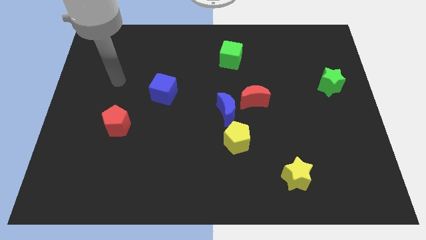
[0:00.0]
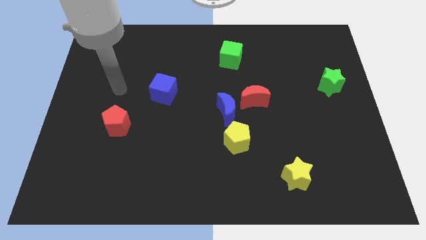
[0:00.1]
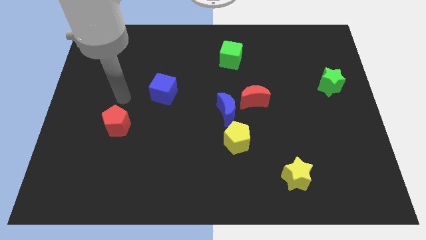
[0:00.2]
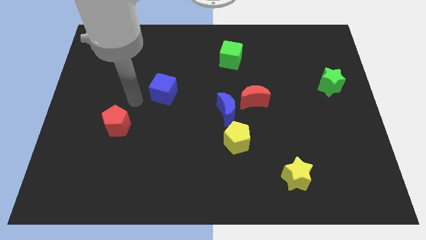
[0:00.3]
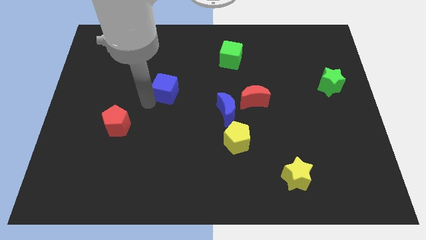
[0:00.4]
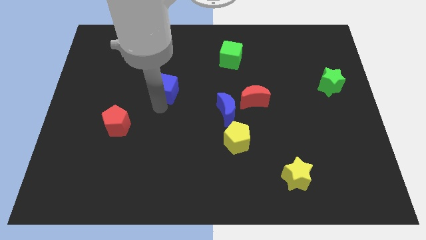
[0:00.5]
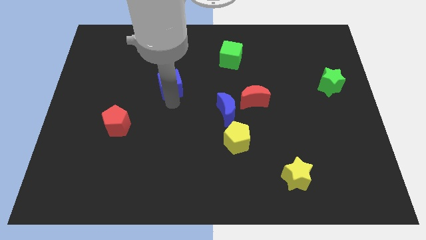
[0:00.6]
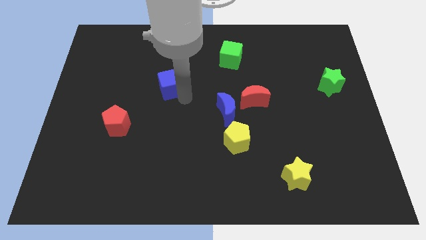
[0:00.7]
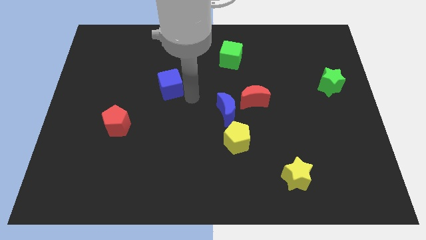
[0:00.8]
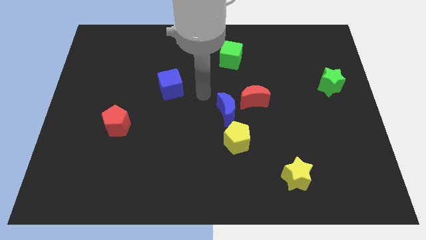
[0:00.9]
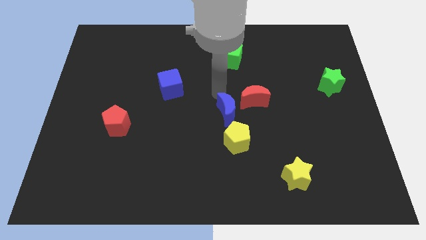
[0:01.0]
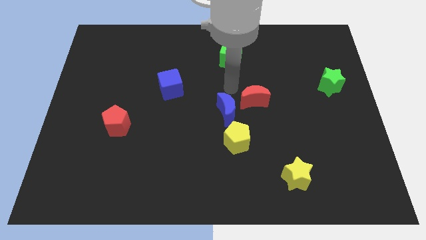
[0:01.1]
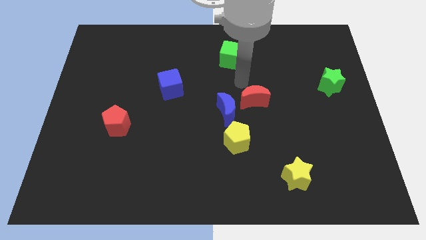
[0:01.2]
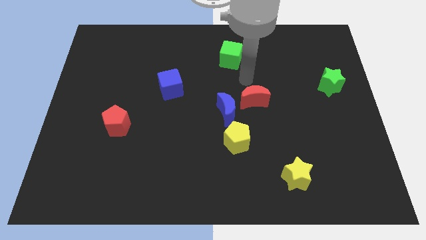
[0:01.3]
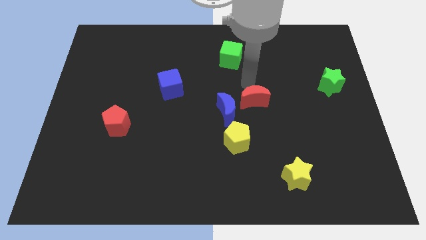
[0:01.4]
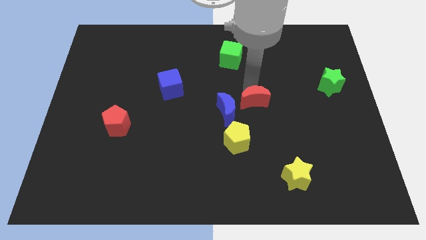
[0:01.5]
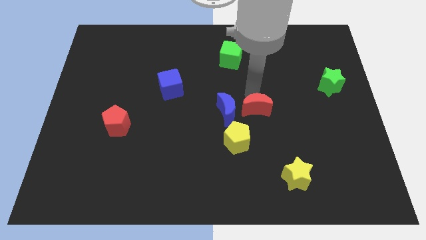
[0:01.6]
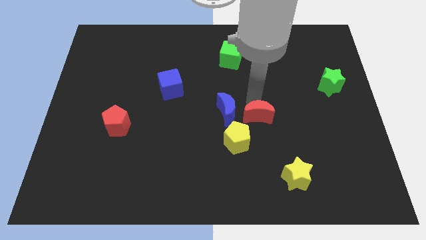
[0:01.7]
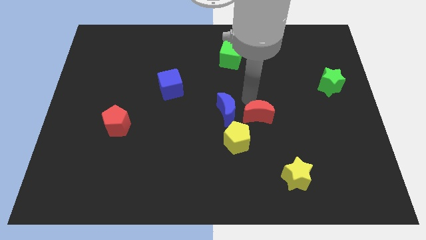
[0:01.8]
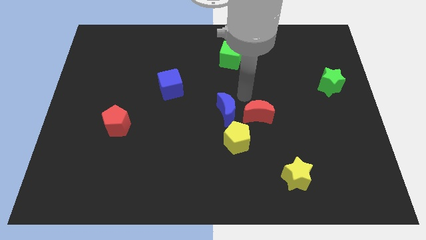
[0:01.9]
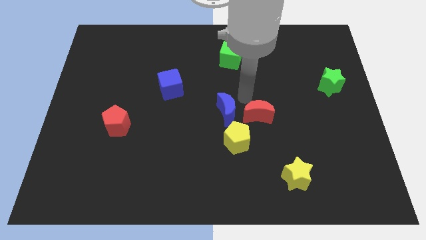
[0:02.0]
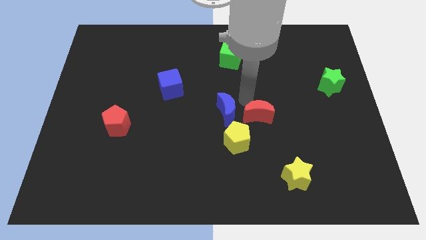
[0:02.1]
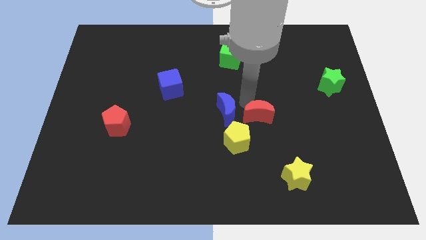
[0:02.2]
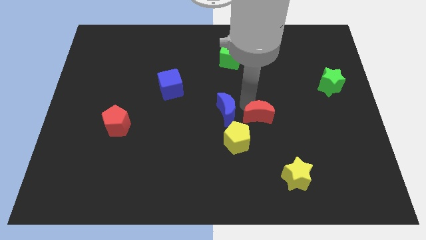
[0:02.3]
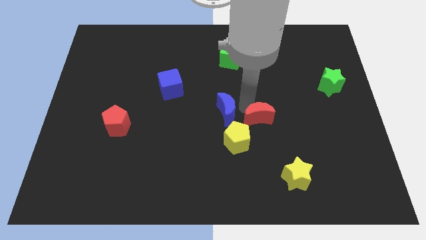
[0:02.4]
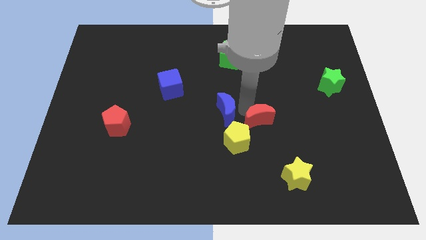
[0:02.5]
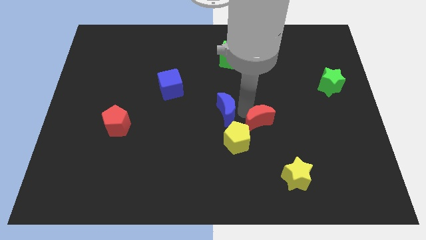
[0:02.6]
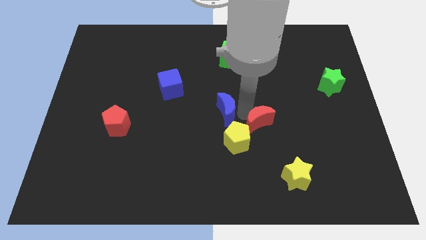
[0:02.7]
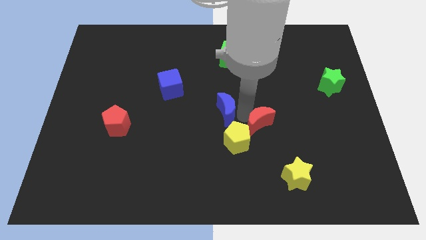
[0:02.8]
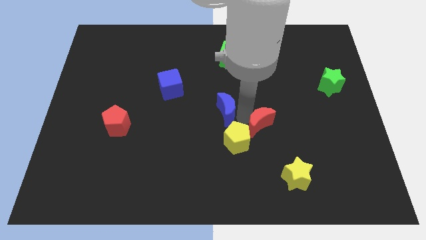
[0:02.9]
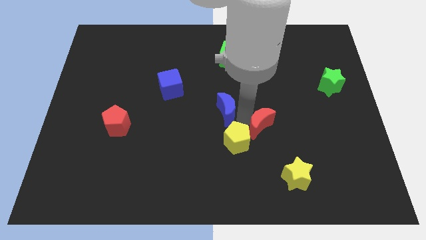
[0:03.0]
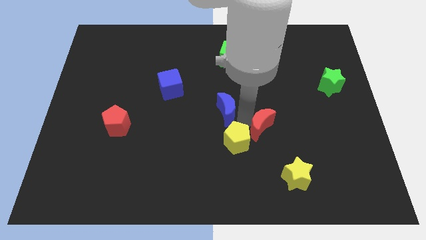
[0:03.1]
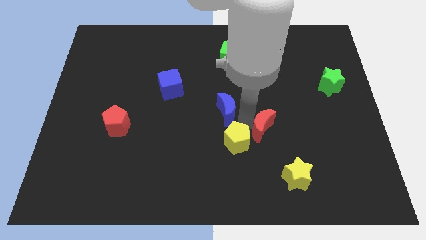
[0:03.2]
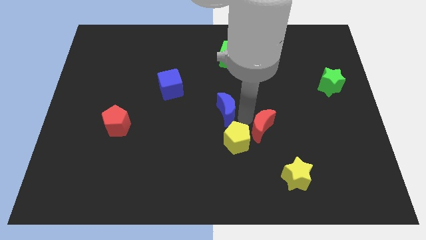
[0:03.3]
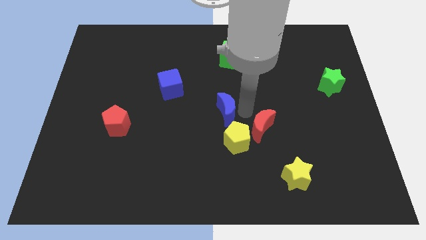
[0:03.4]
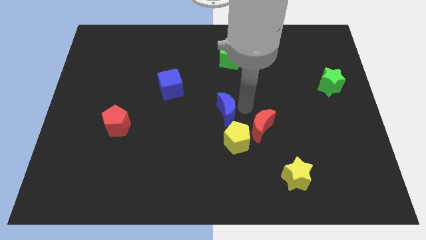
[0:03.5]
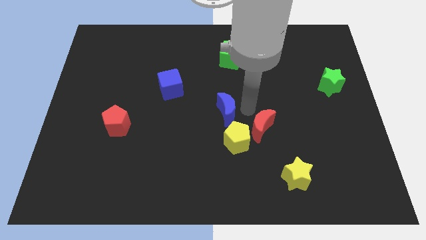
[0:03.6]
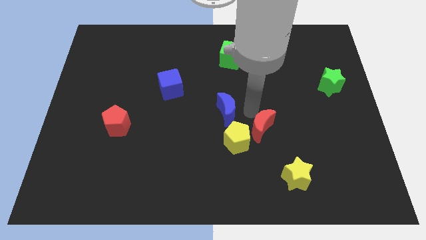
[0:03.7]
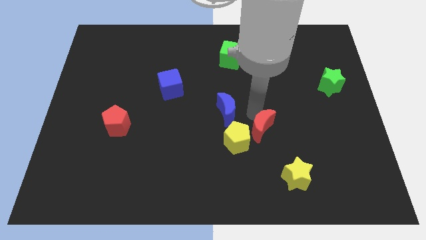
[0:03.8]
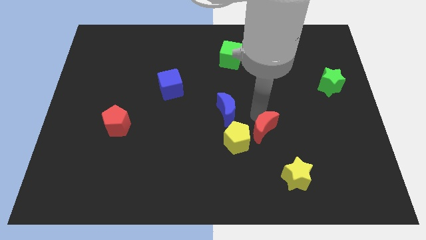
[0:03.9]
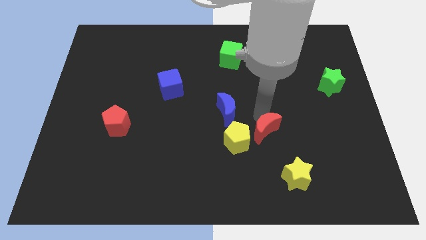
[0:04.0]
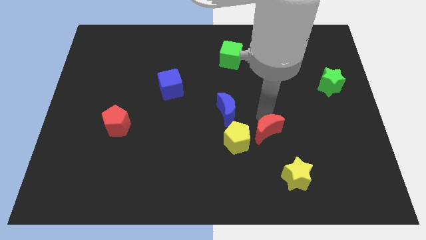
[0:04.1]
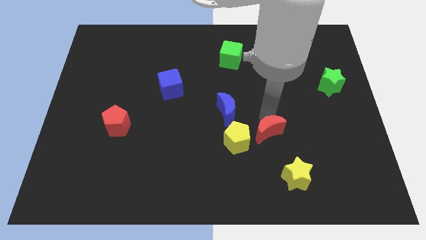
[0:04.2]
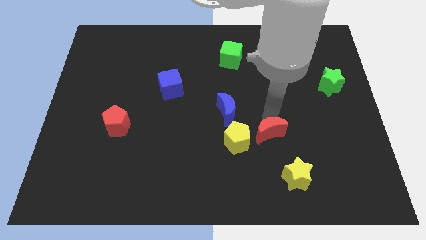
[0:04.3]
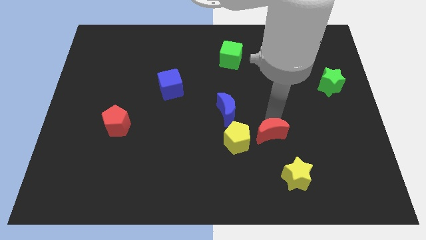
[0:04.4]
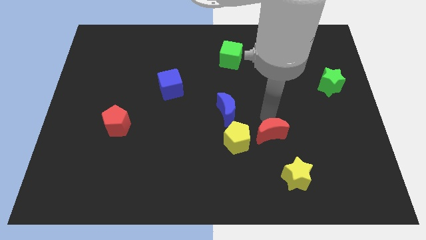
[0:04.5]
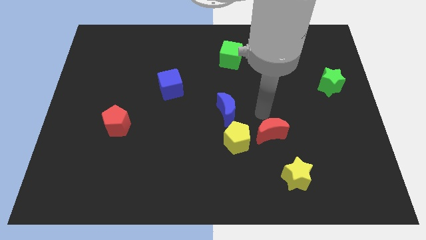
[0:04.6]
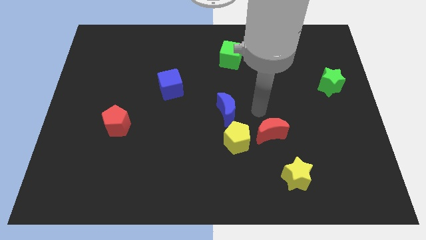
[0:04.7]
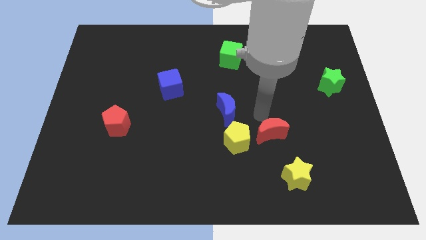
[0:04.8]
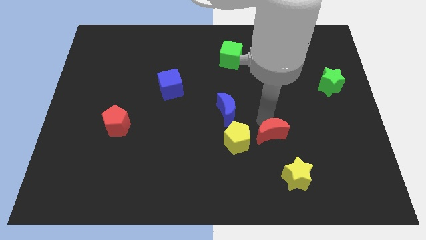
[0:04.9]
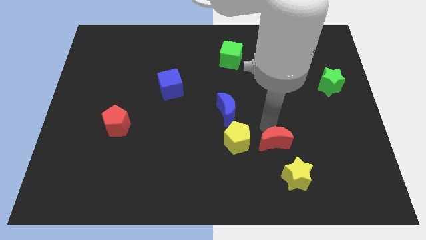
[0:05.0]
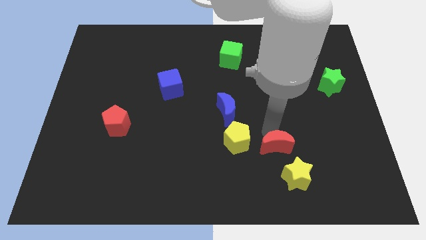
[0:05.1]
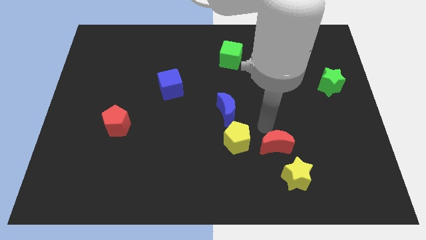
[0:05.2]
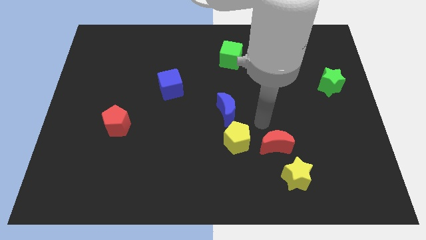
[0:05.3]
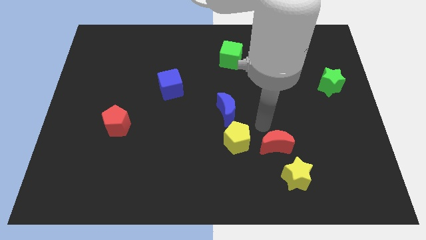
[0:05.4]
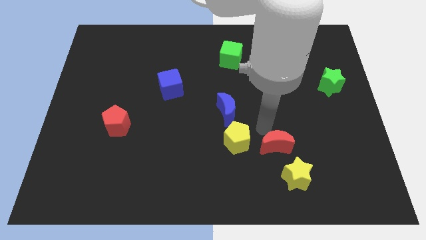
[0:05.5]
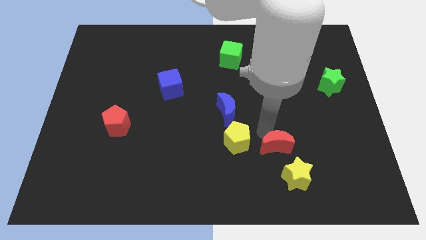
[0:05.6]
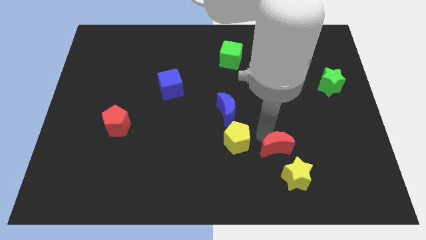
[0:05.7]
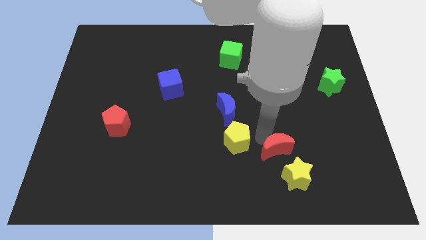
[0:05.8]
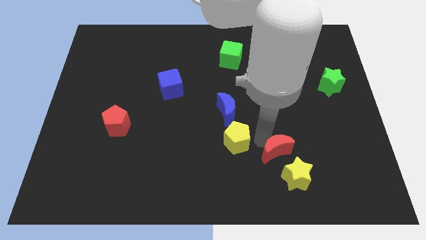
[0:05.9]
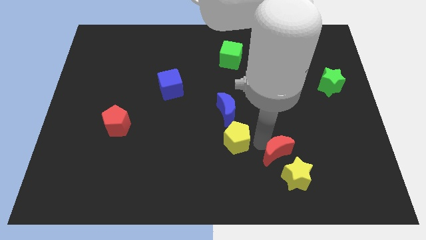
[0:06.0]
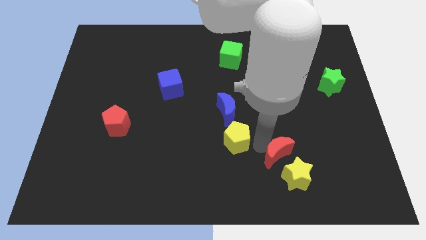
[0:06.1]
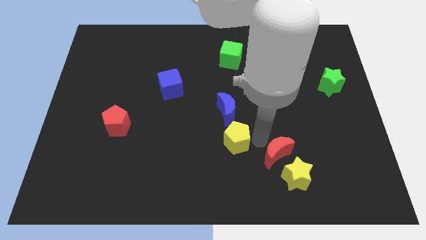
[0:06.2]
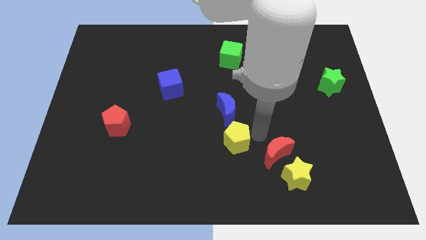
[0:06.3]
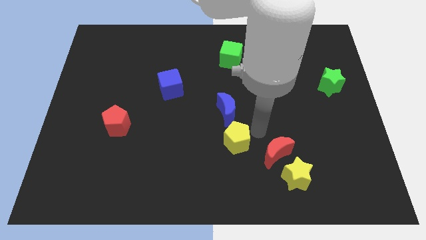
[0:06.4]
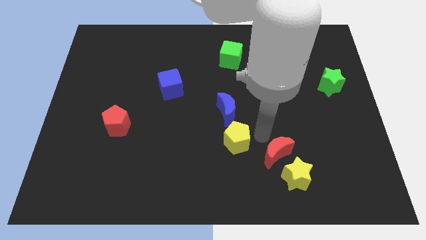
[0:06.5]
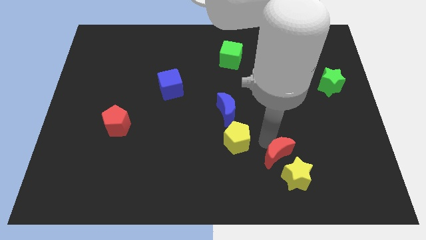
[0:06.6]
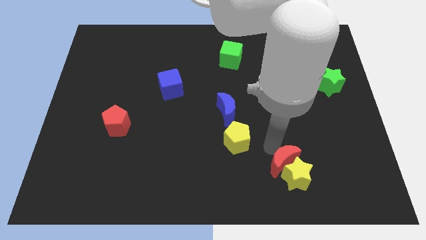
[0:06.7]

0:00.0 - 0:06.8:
put the red moon to the yellow star
